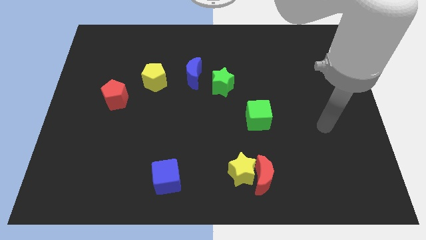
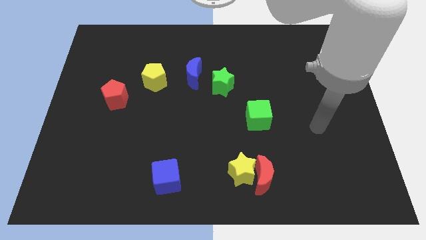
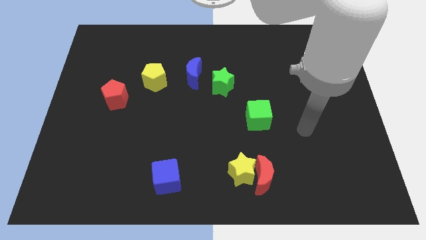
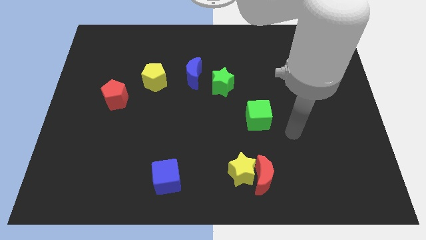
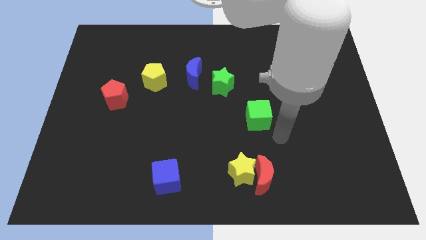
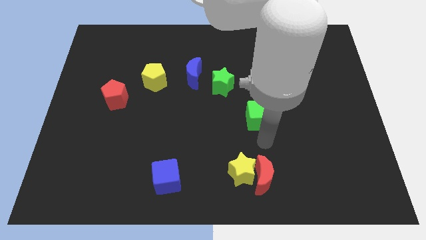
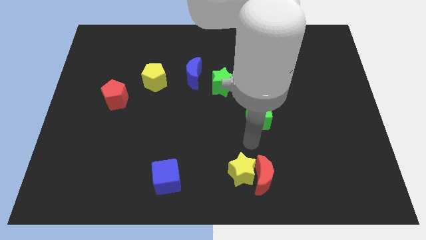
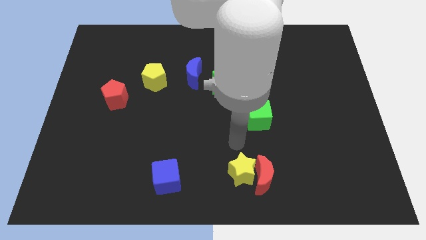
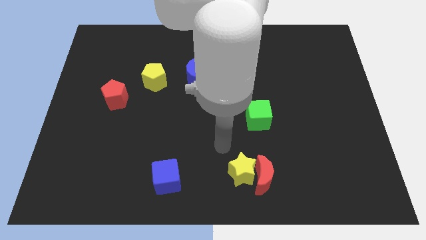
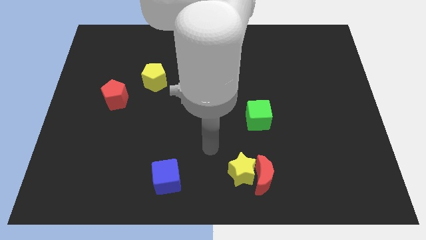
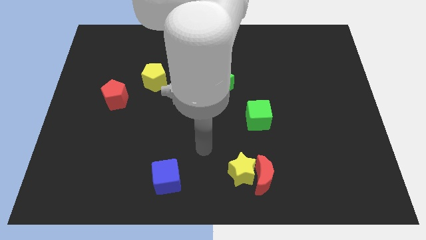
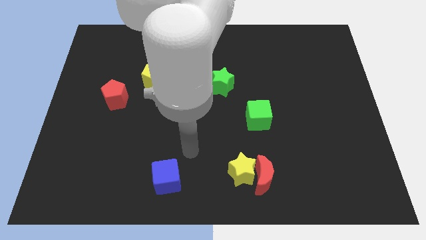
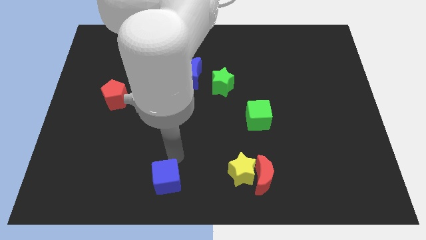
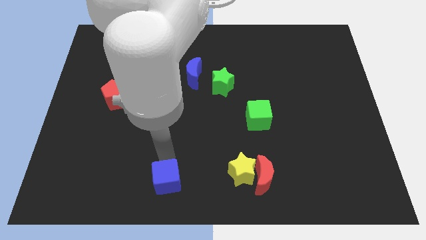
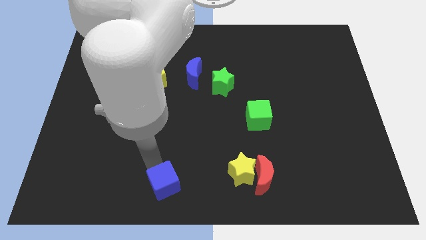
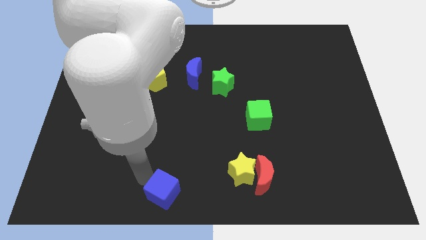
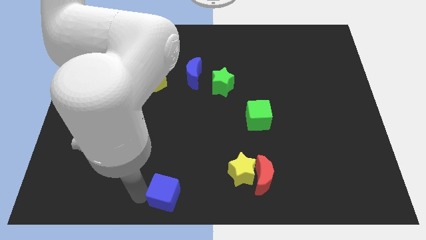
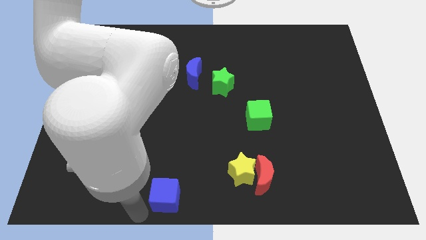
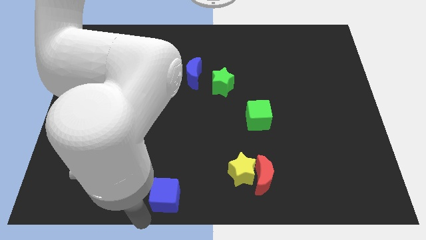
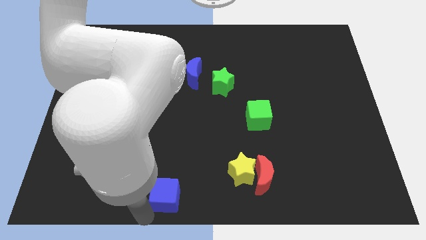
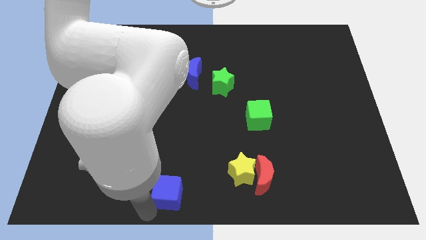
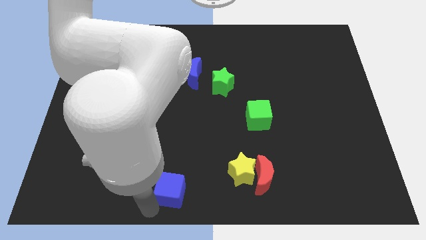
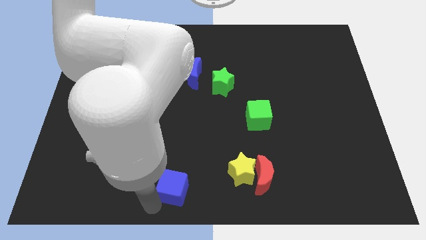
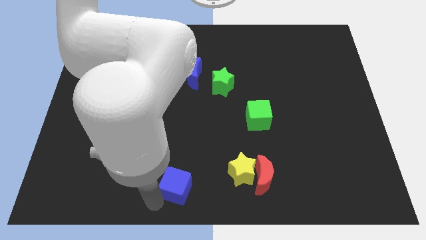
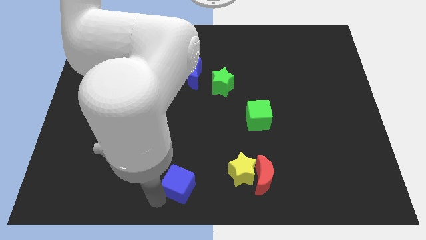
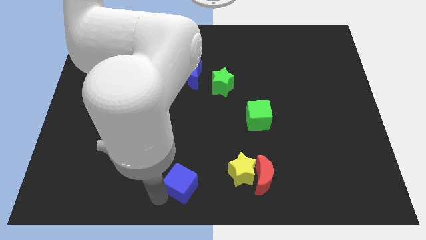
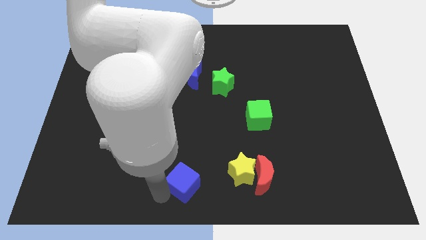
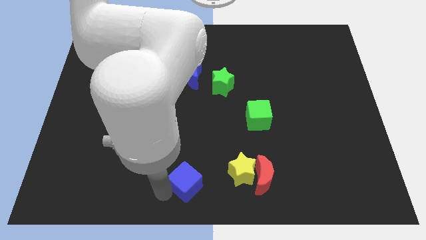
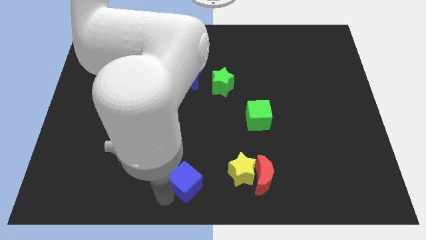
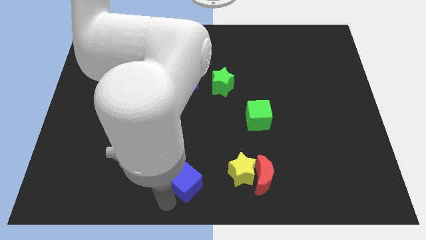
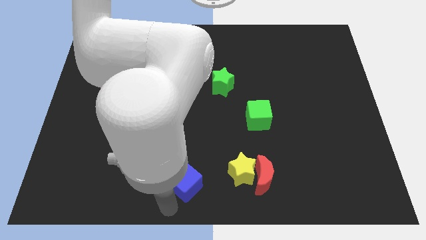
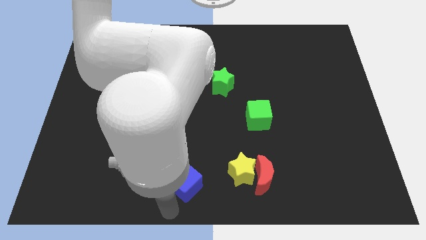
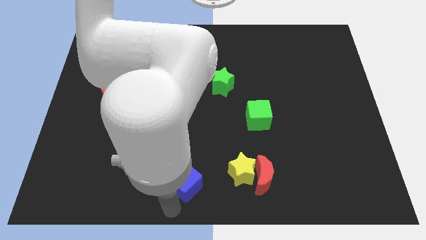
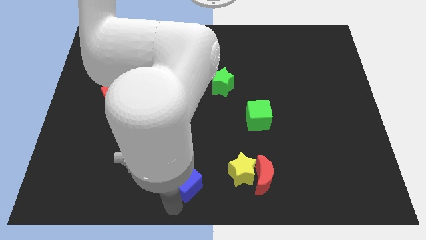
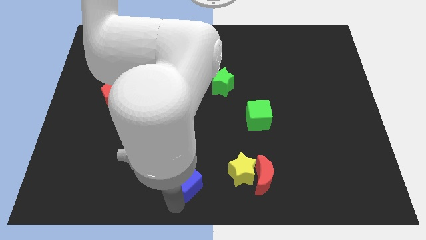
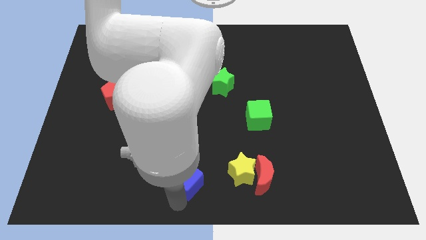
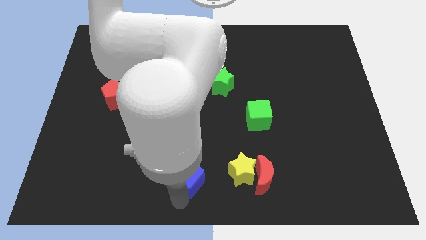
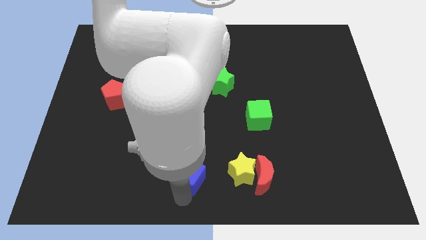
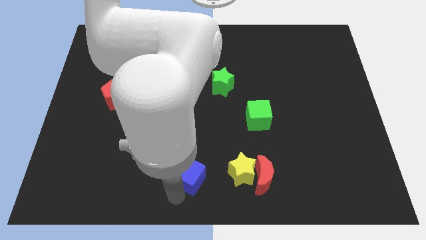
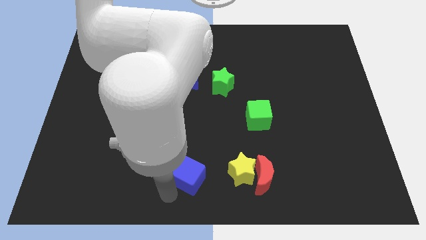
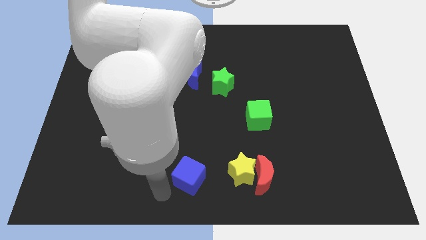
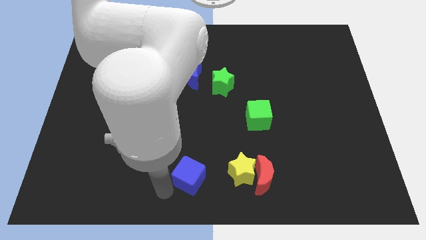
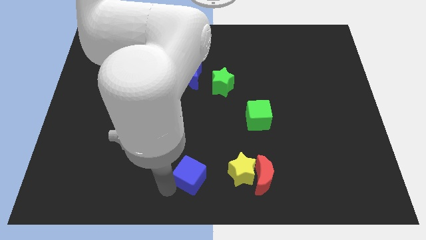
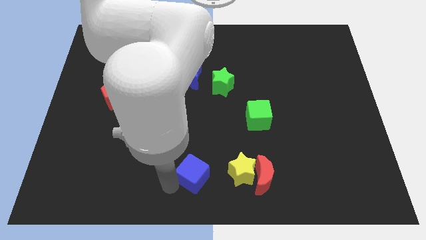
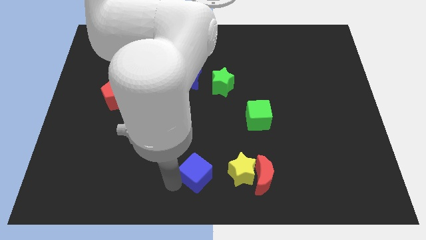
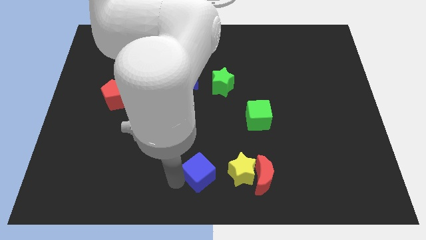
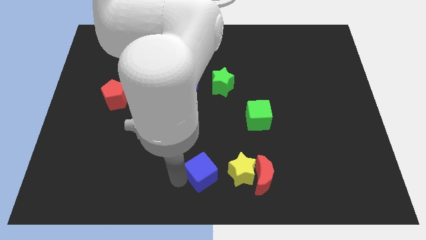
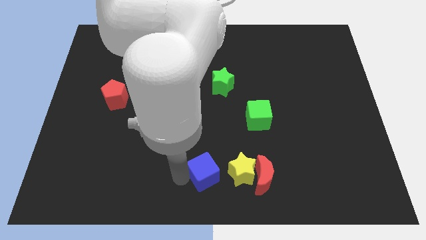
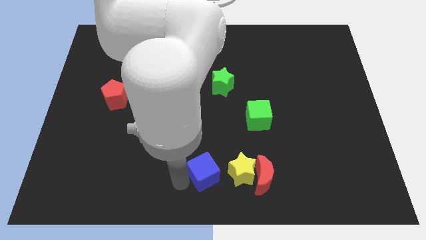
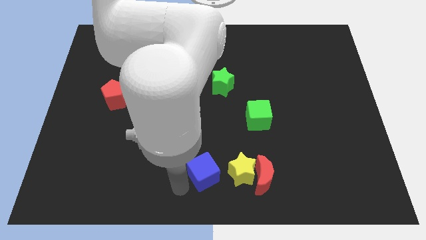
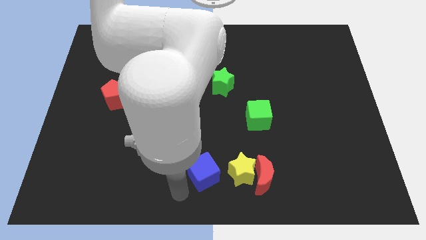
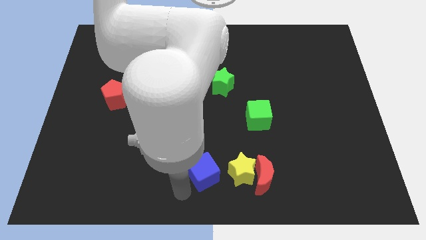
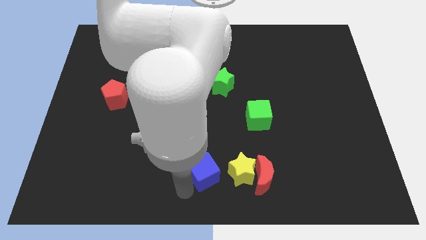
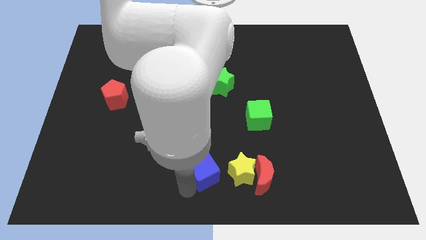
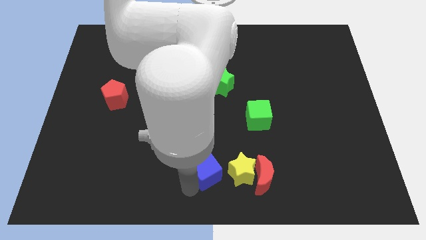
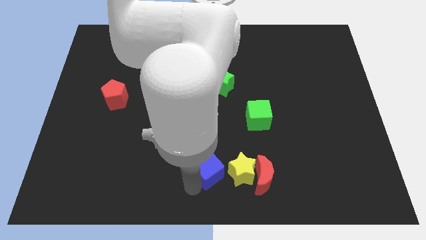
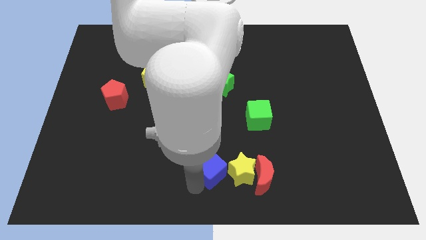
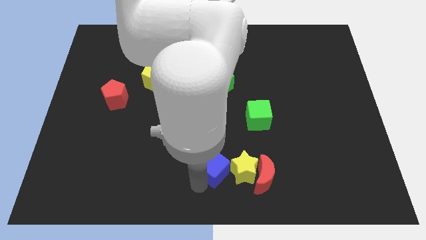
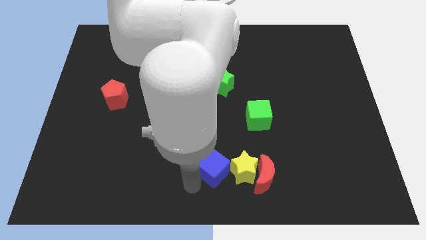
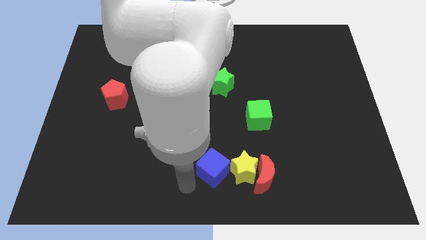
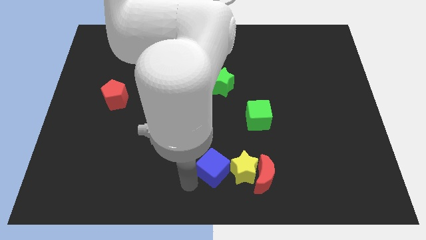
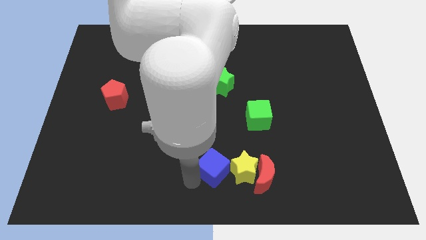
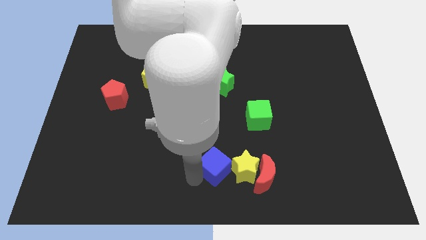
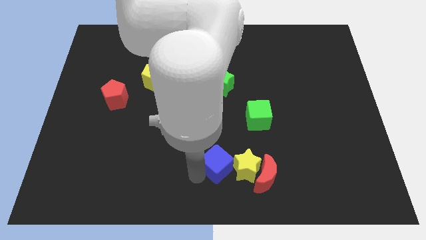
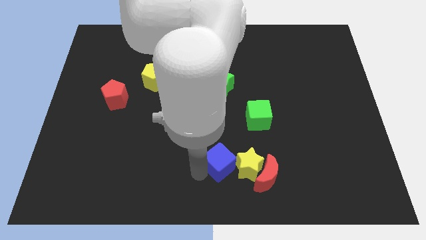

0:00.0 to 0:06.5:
slide the blue cube to the top left side of the red moon

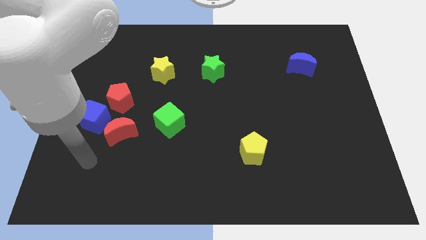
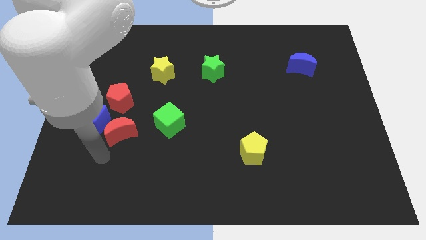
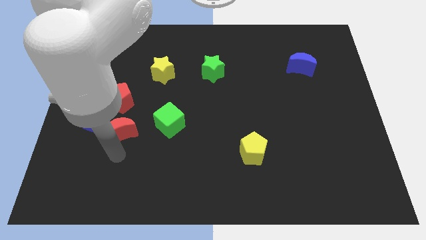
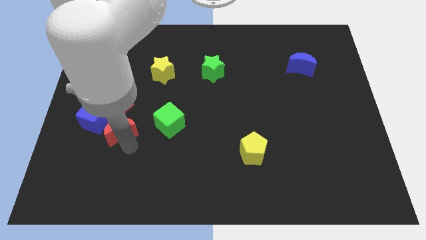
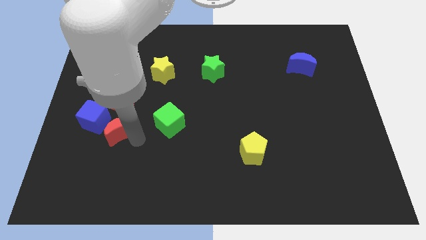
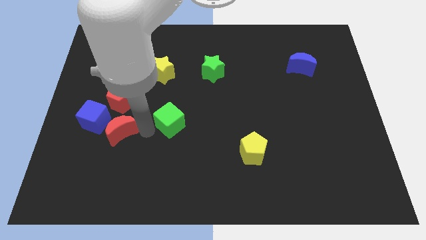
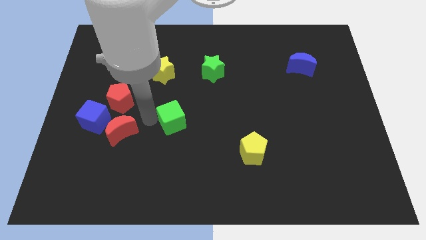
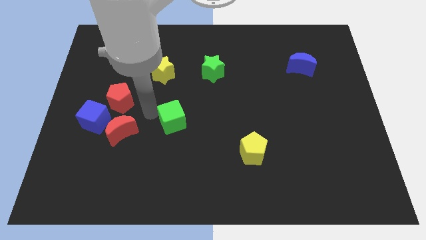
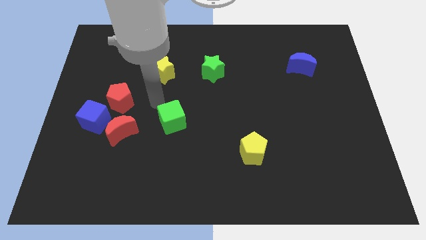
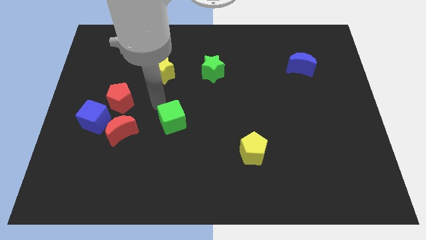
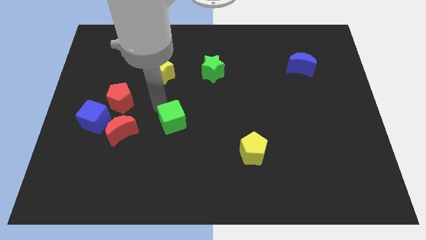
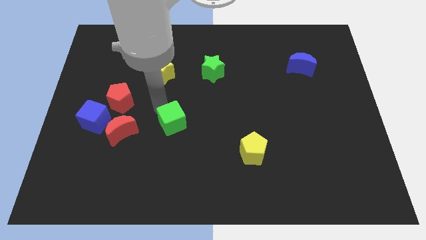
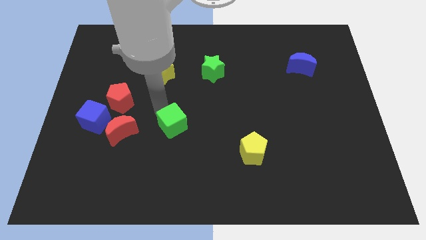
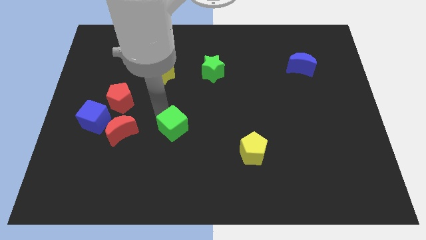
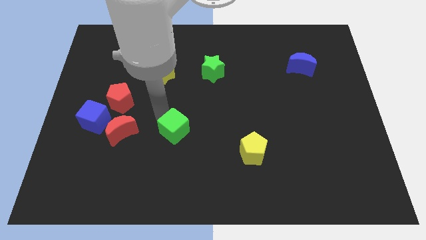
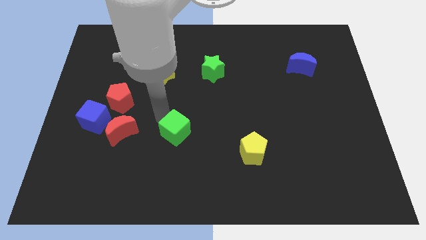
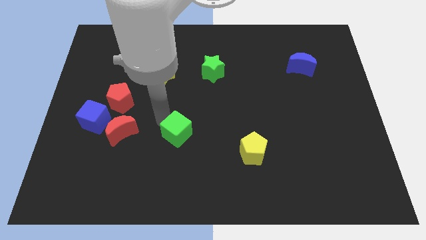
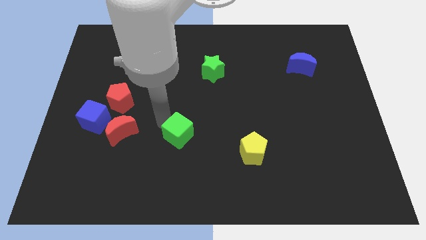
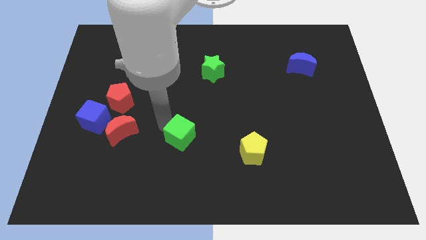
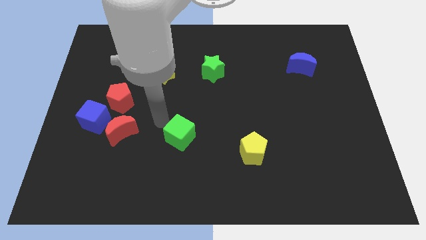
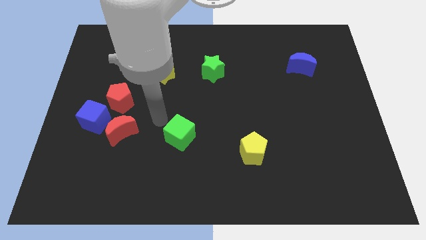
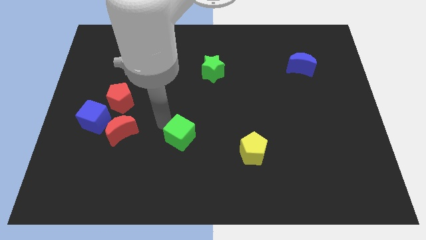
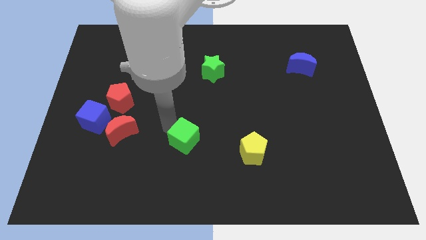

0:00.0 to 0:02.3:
slide the green cube to the left of the yellow pentagon
